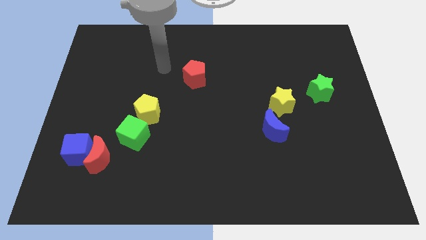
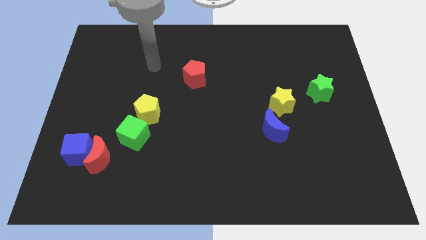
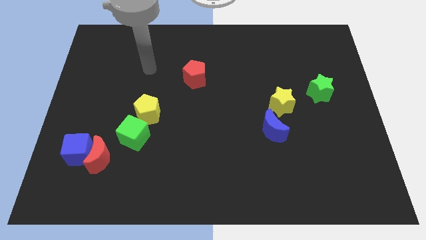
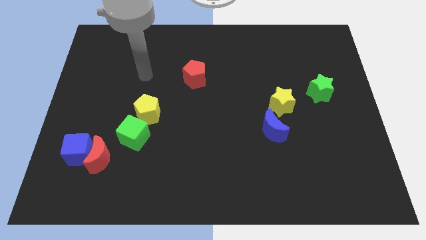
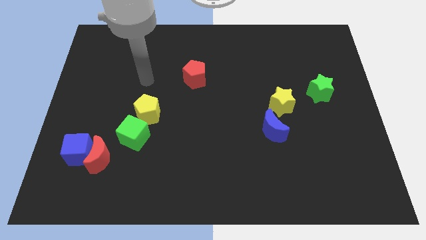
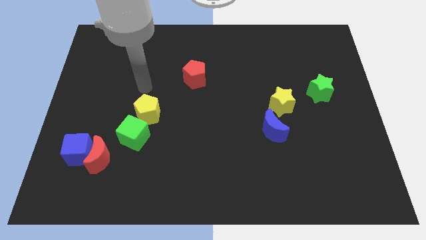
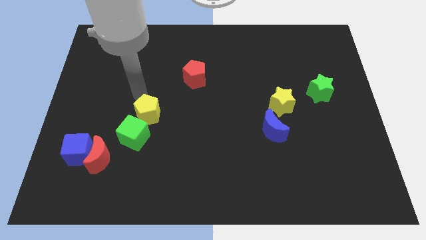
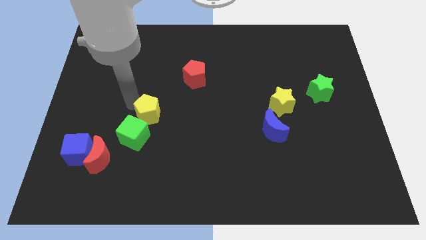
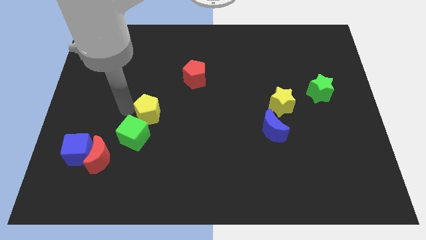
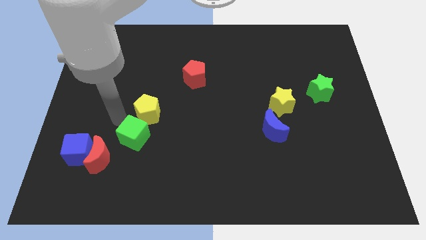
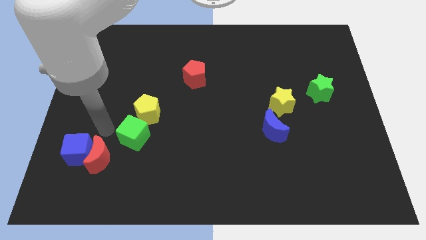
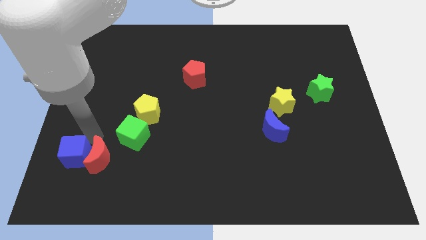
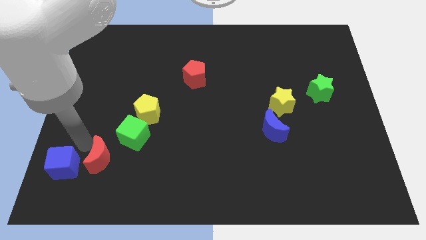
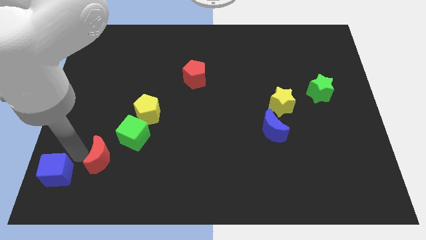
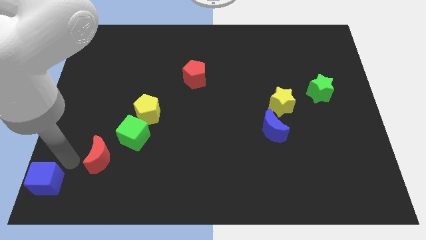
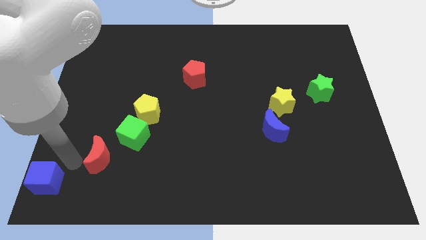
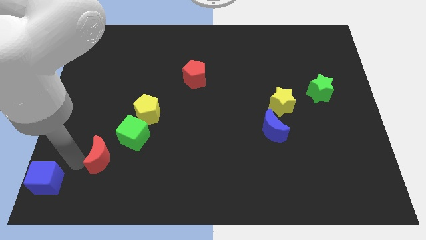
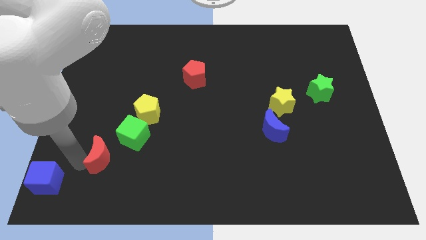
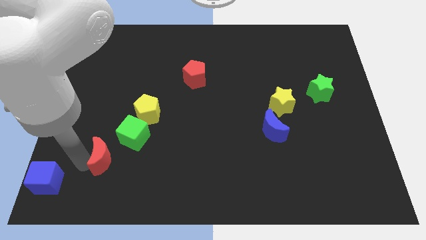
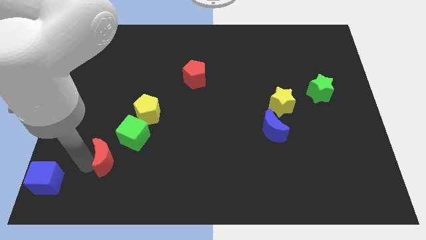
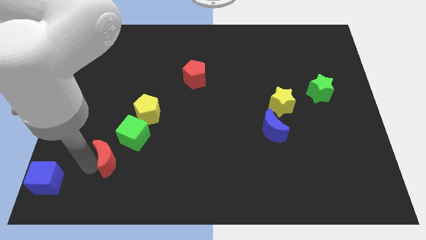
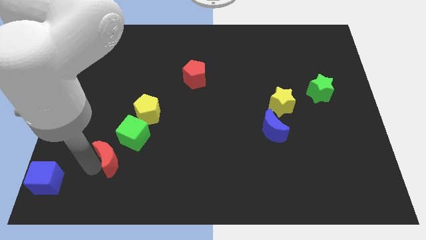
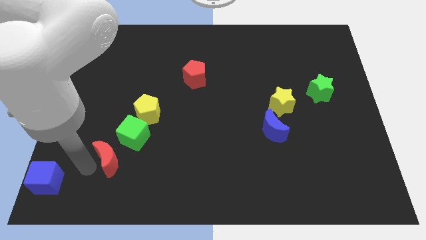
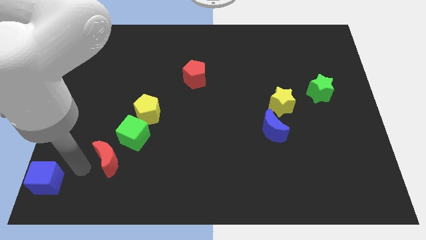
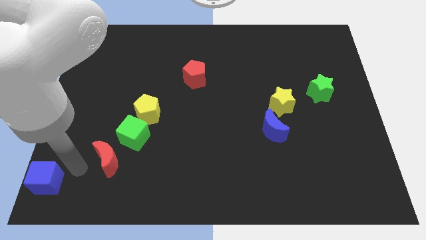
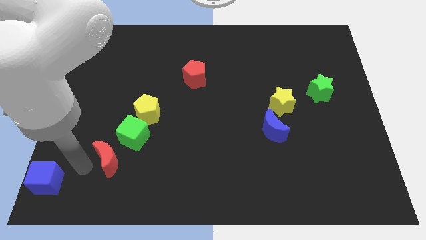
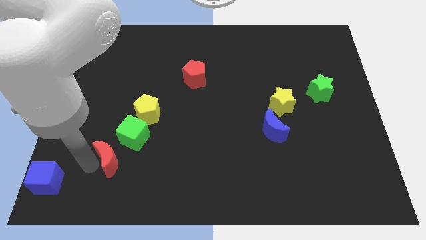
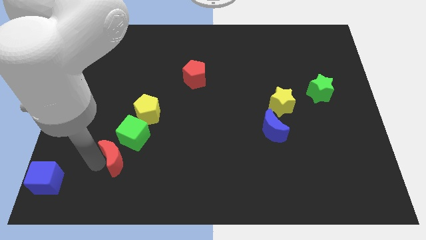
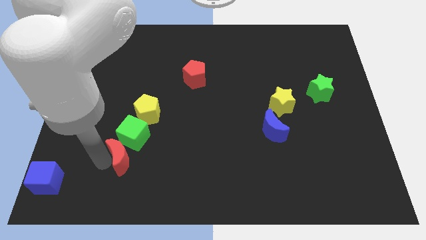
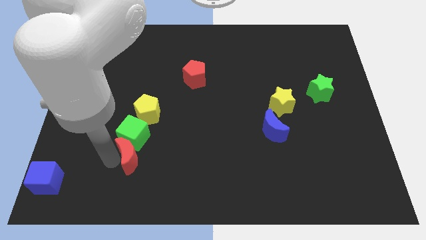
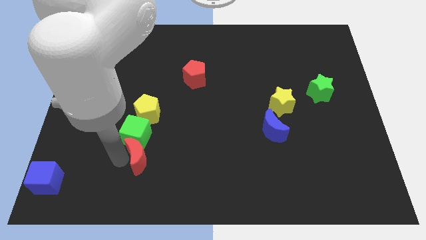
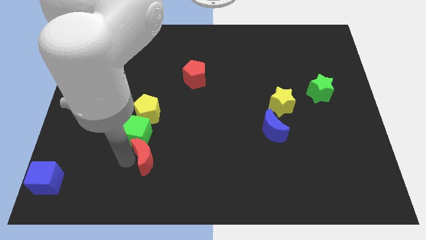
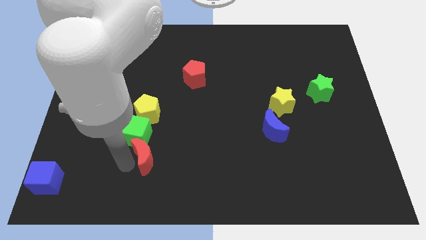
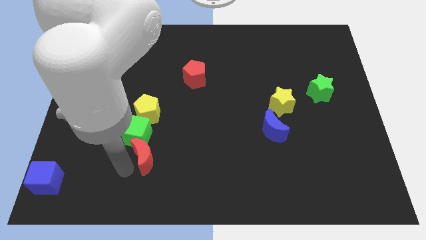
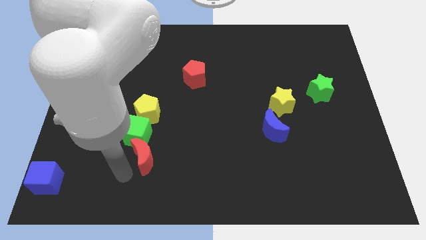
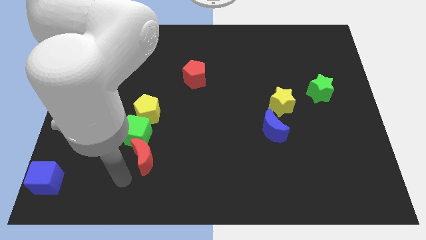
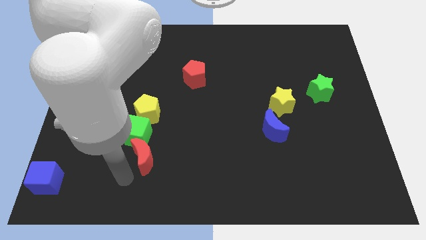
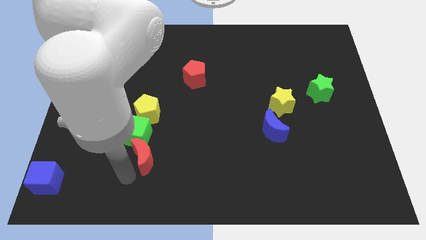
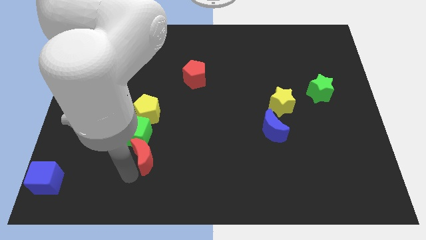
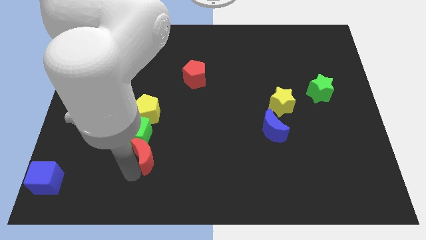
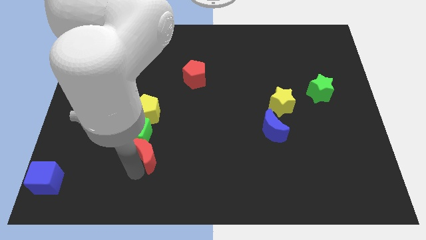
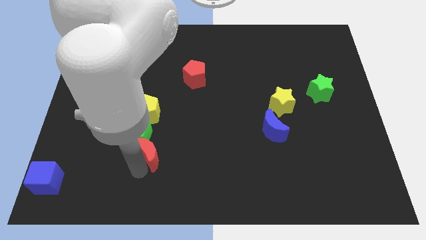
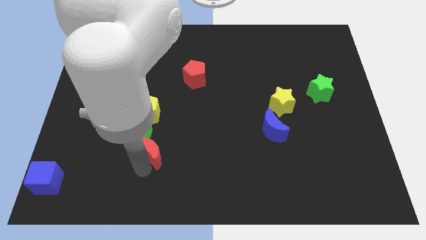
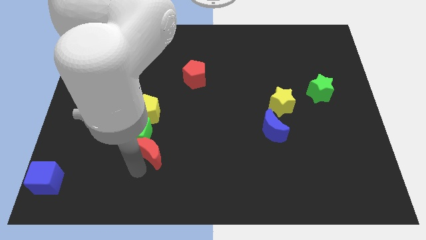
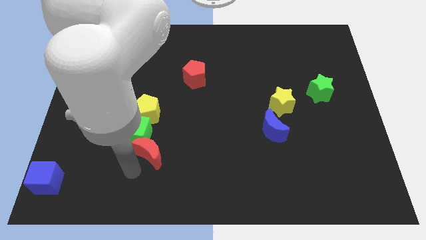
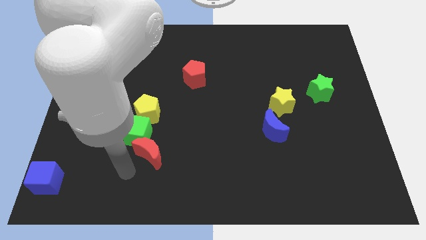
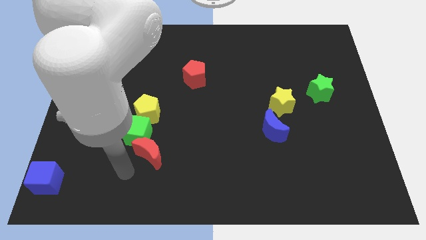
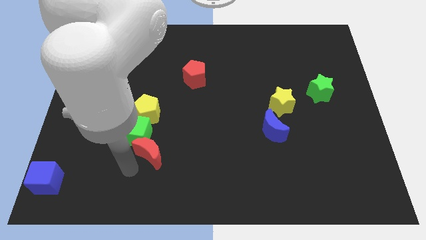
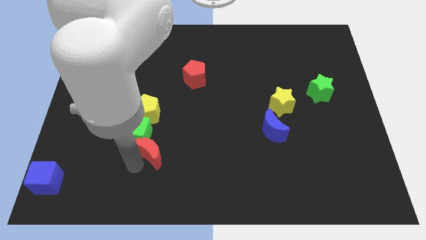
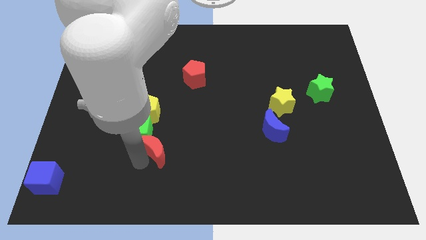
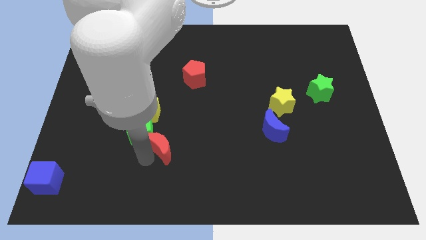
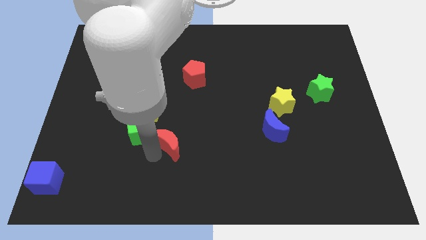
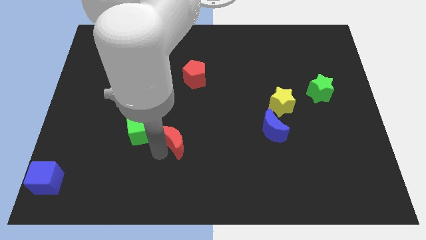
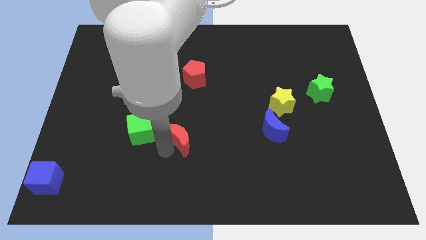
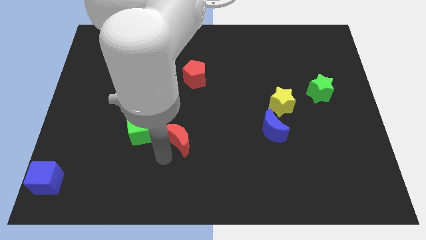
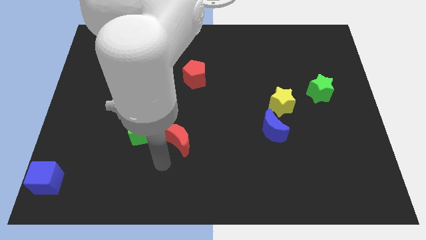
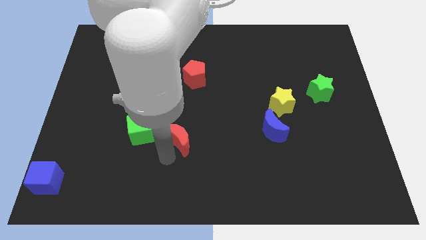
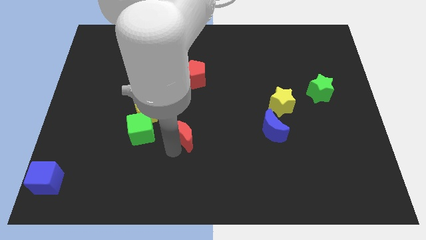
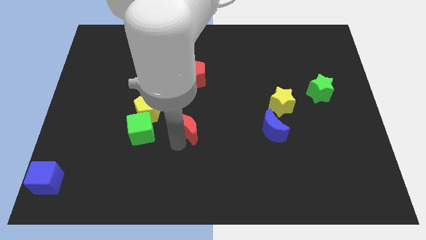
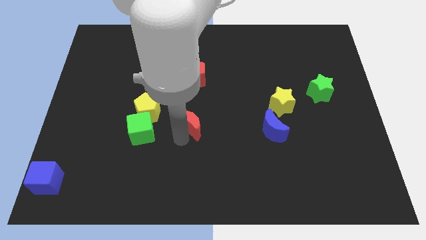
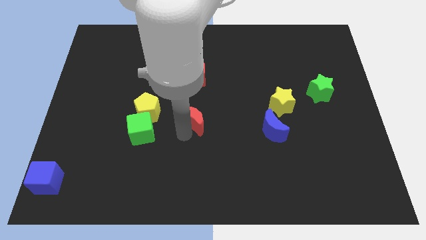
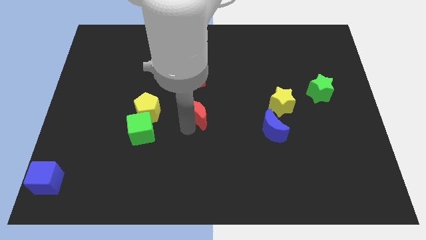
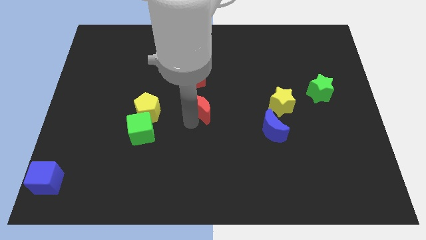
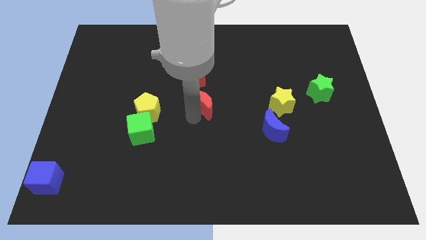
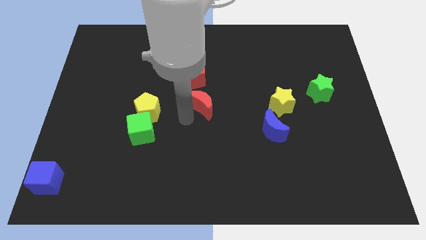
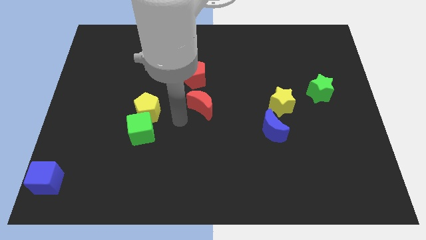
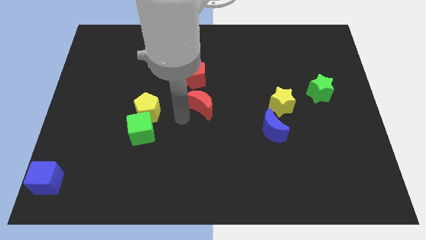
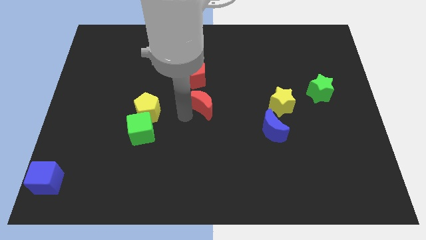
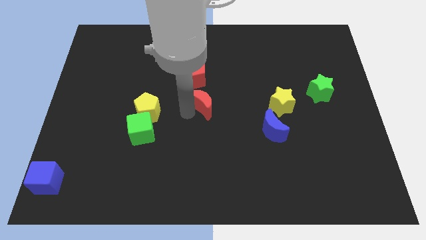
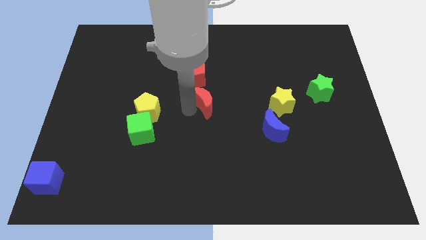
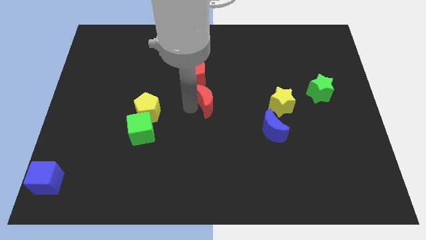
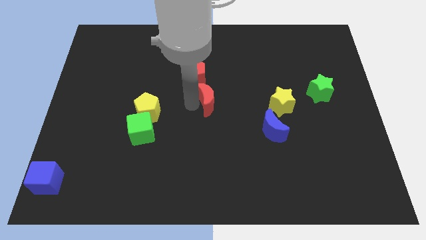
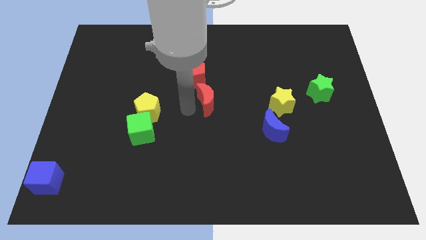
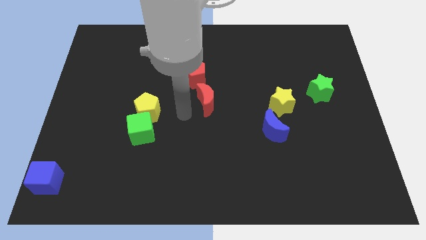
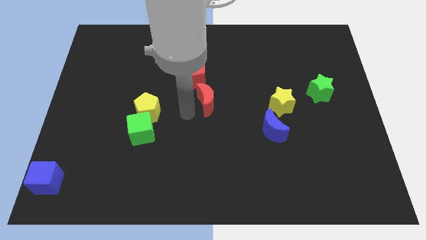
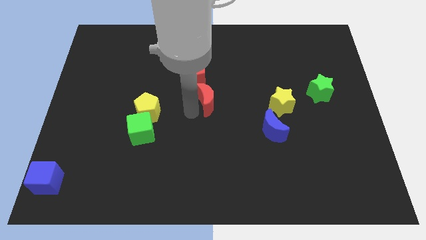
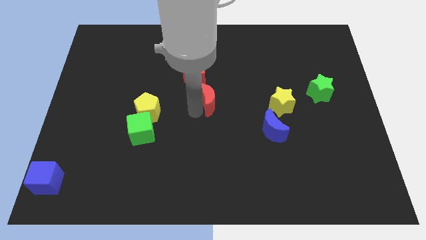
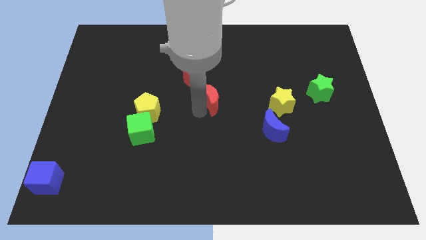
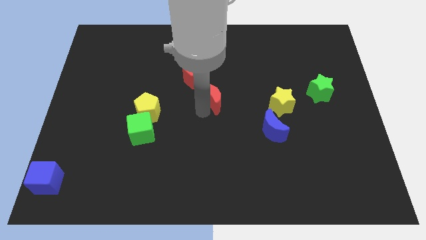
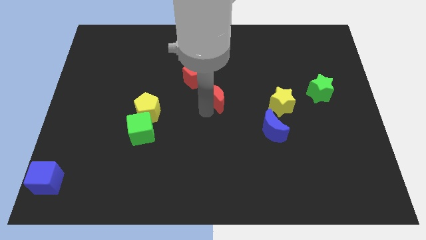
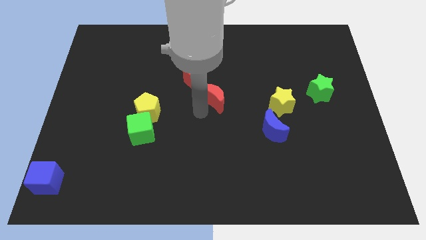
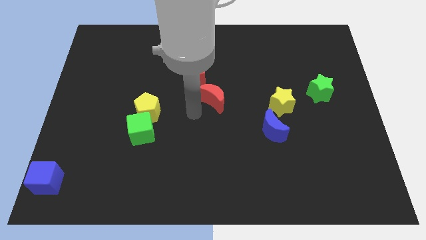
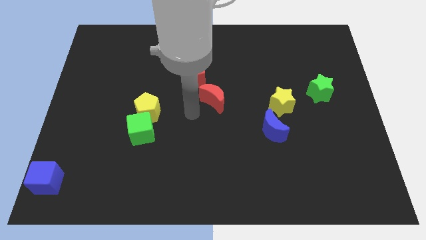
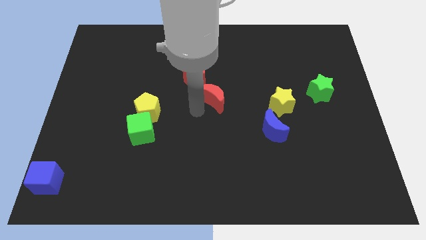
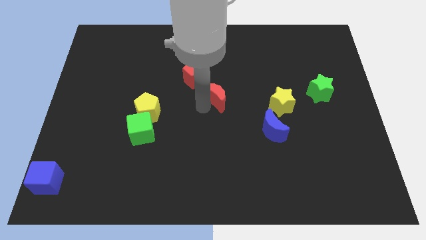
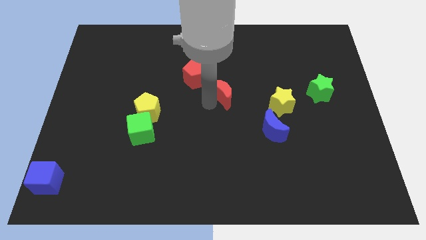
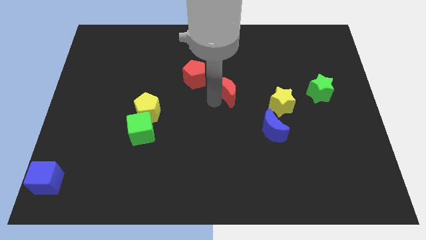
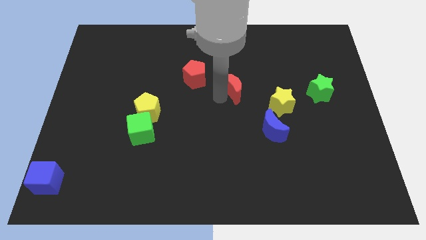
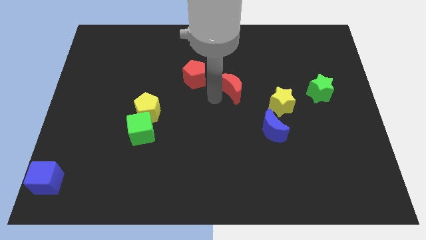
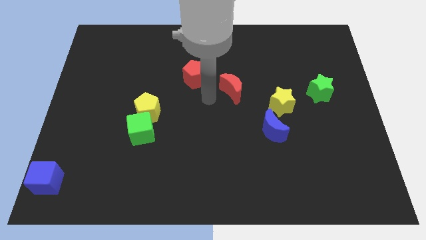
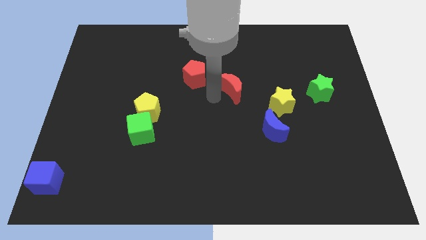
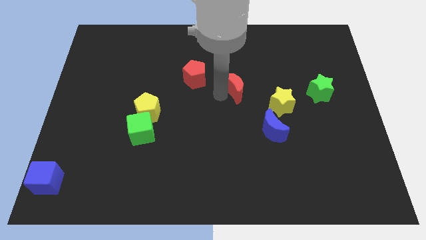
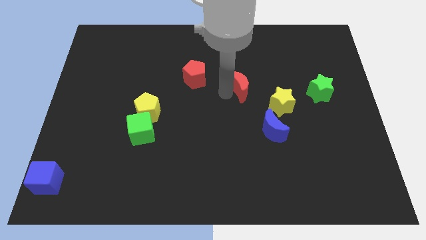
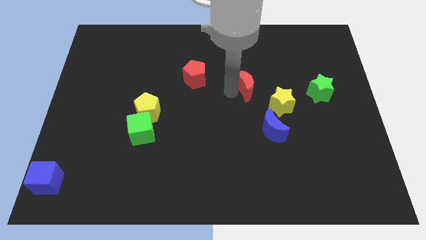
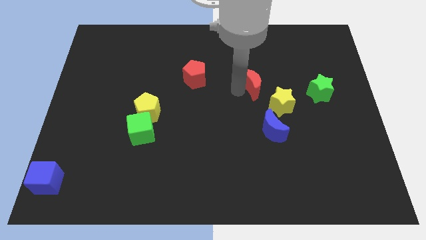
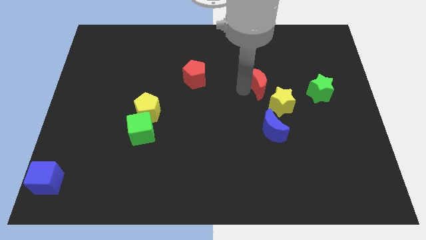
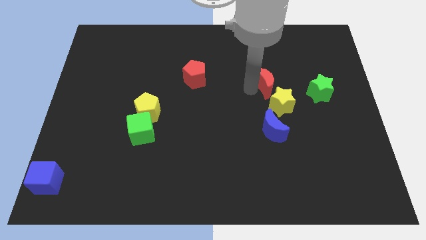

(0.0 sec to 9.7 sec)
slide the red moon above the yellow star
